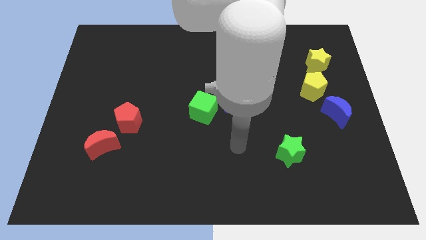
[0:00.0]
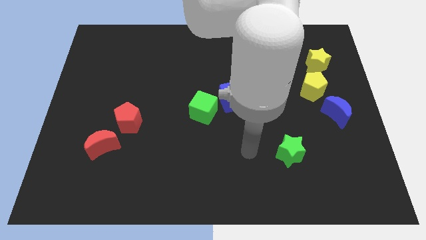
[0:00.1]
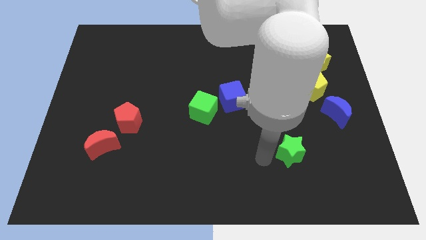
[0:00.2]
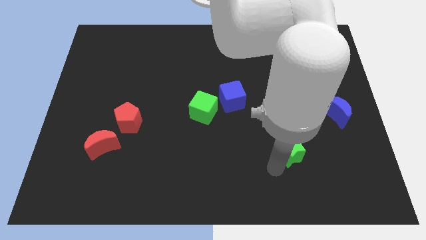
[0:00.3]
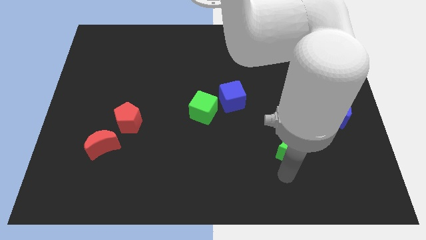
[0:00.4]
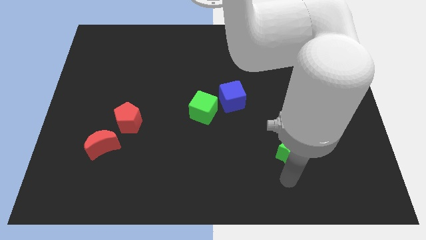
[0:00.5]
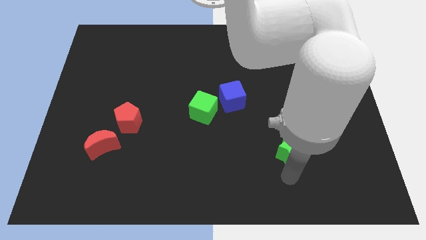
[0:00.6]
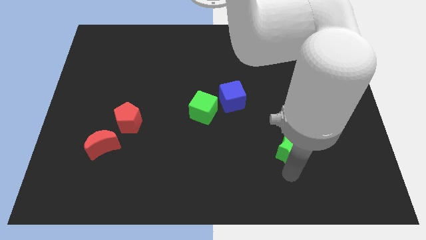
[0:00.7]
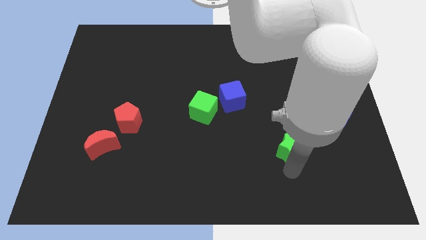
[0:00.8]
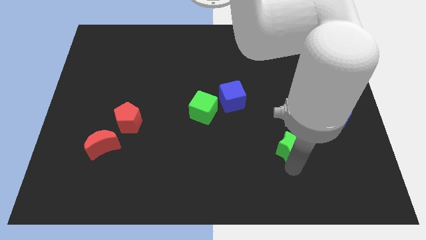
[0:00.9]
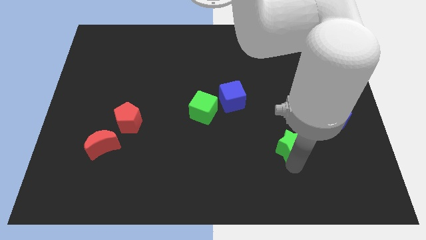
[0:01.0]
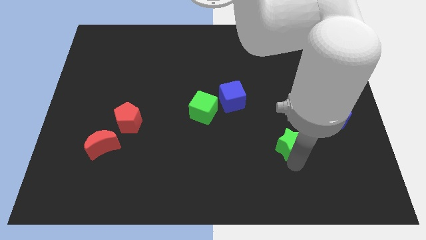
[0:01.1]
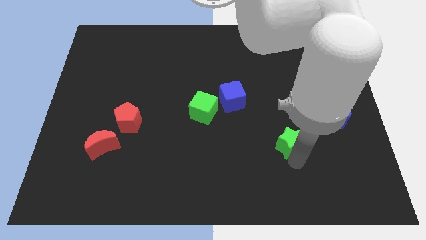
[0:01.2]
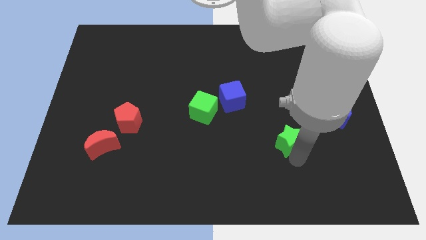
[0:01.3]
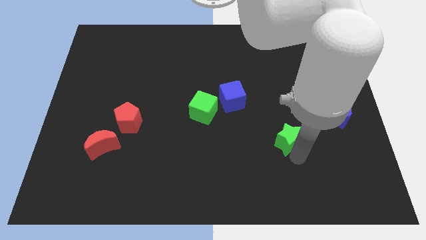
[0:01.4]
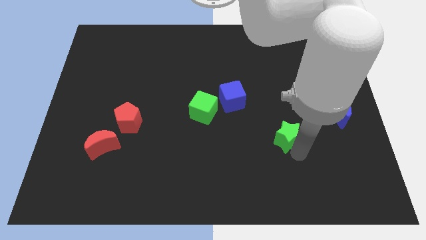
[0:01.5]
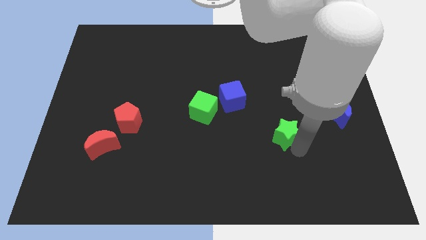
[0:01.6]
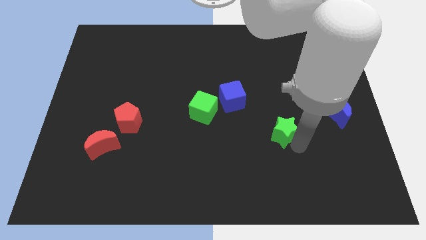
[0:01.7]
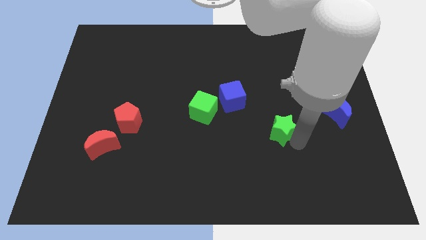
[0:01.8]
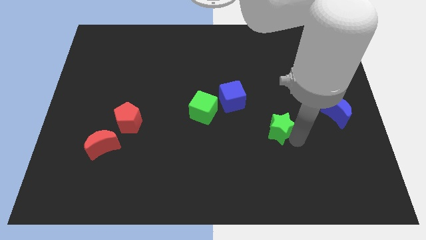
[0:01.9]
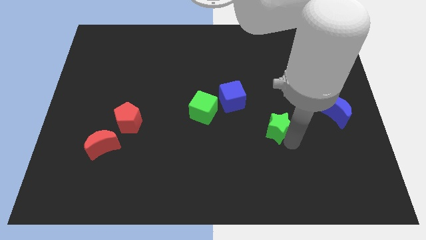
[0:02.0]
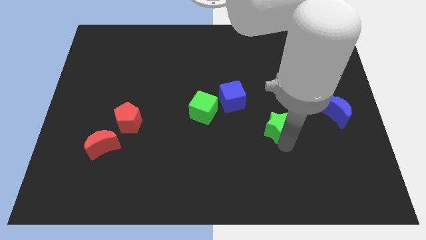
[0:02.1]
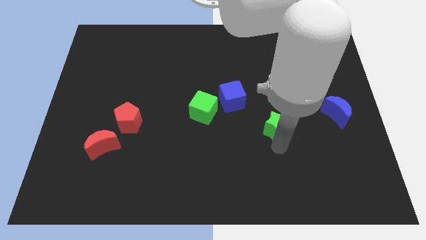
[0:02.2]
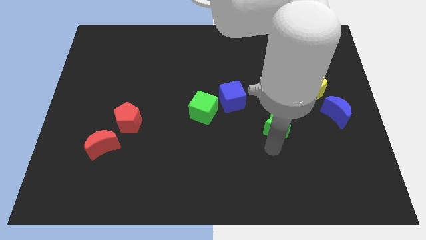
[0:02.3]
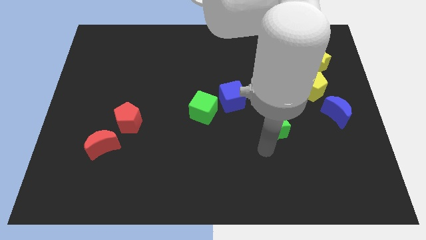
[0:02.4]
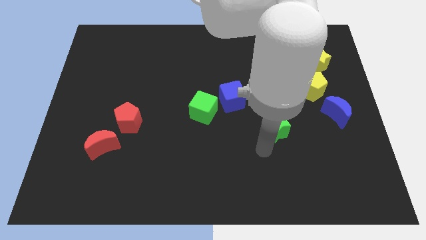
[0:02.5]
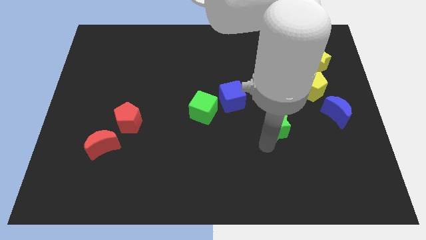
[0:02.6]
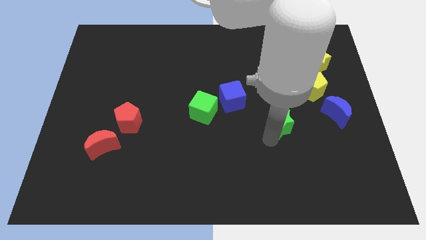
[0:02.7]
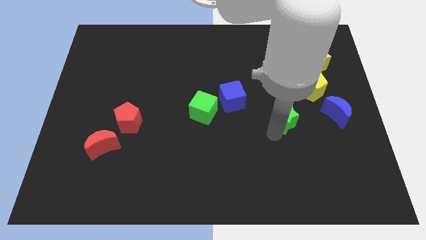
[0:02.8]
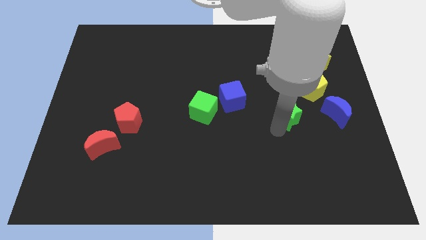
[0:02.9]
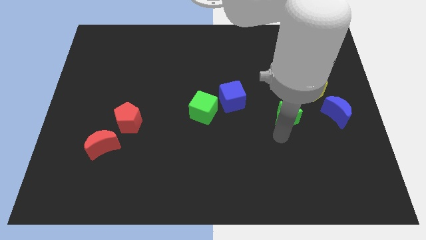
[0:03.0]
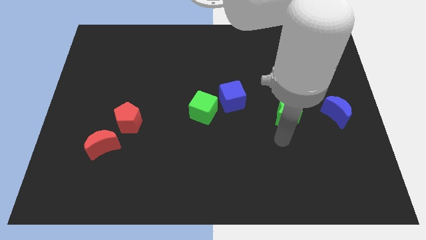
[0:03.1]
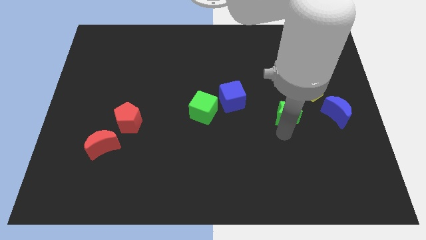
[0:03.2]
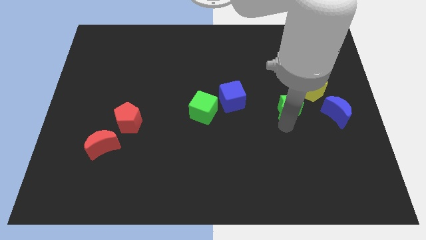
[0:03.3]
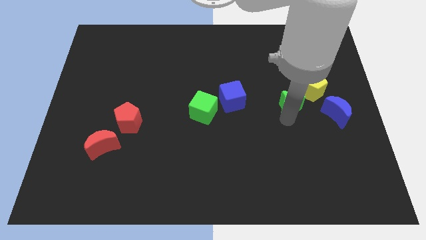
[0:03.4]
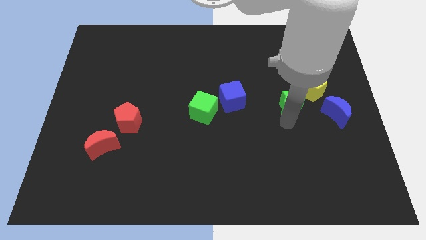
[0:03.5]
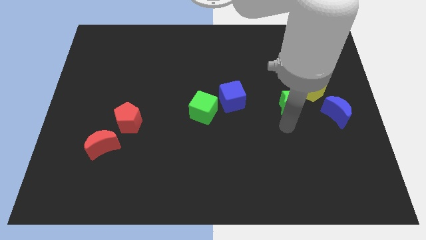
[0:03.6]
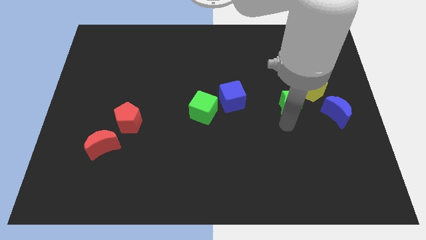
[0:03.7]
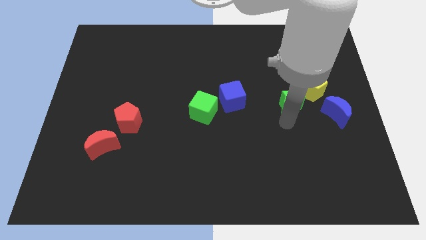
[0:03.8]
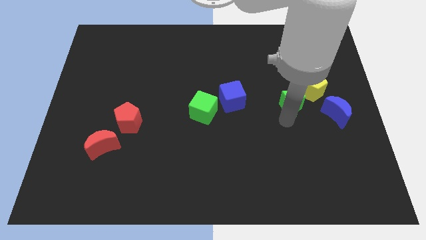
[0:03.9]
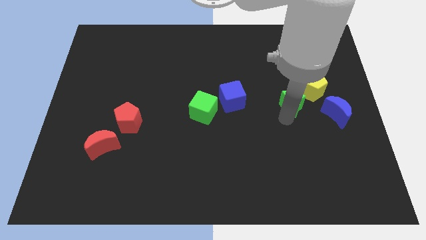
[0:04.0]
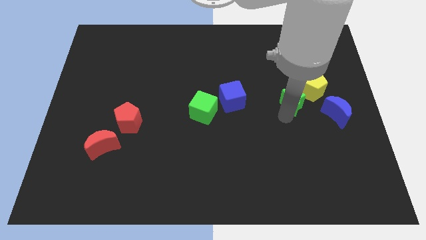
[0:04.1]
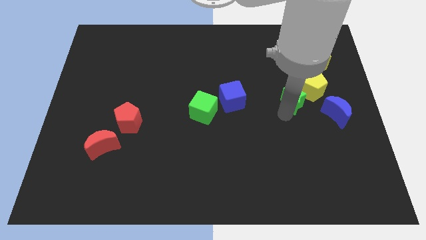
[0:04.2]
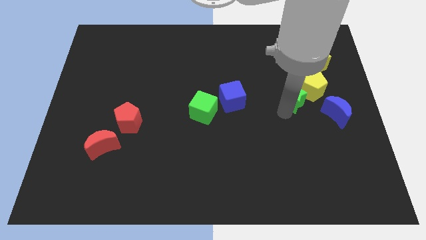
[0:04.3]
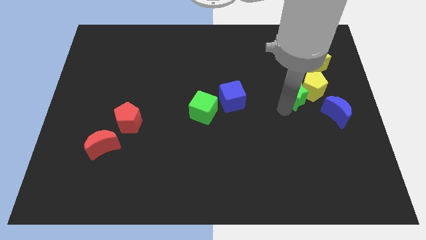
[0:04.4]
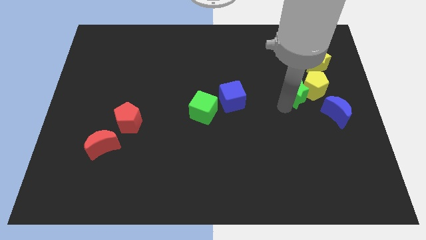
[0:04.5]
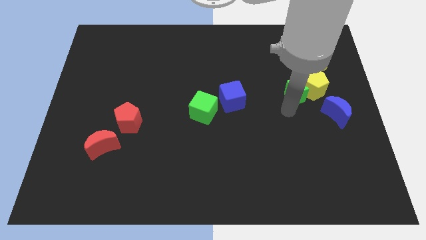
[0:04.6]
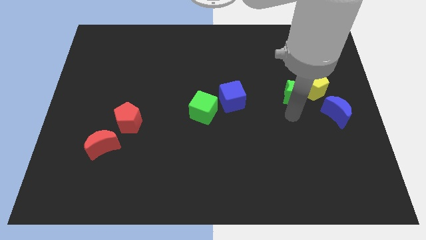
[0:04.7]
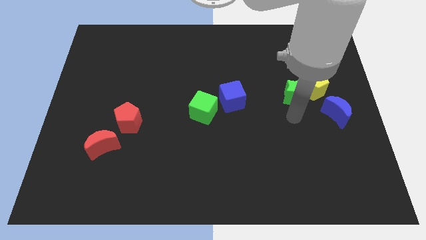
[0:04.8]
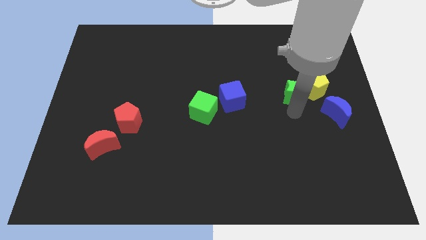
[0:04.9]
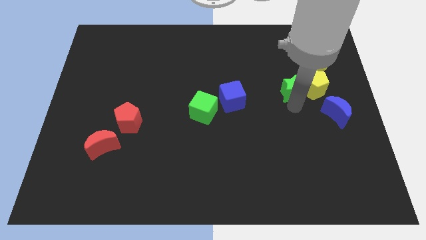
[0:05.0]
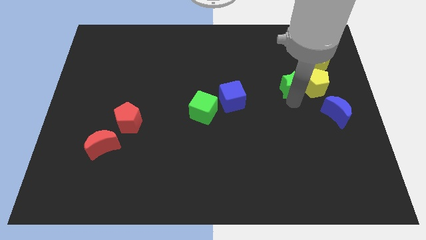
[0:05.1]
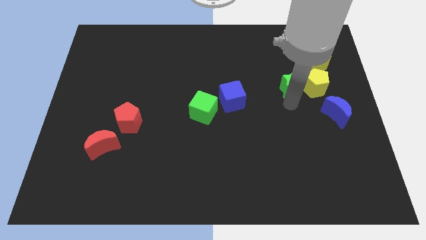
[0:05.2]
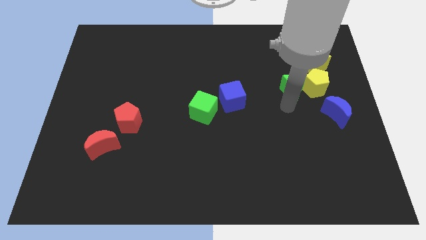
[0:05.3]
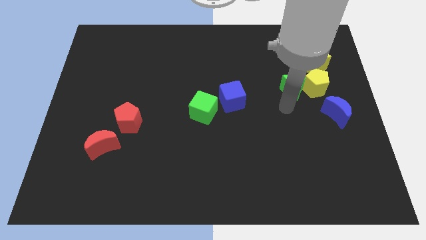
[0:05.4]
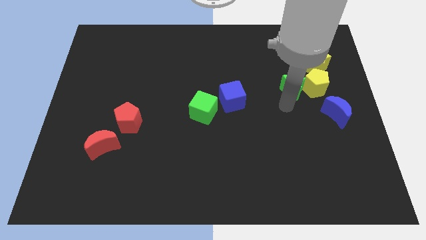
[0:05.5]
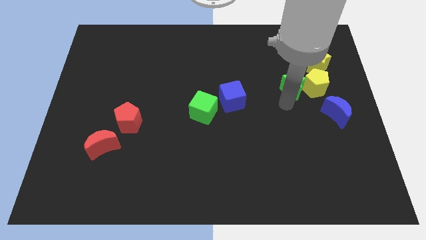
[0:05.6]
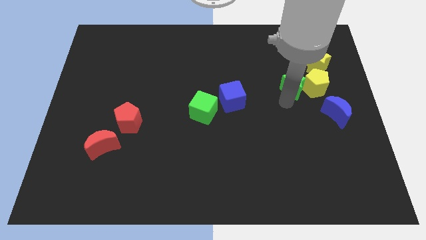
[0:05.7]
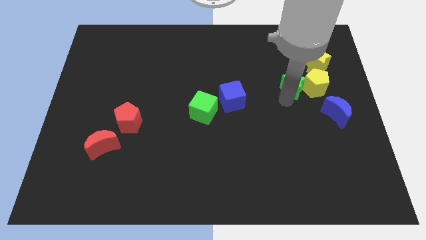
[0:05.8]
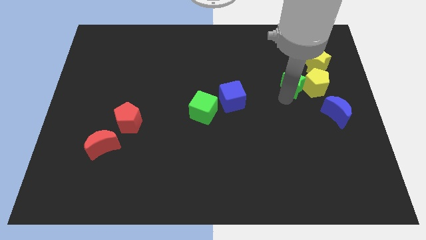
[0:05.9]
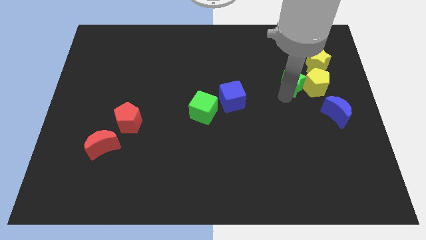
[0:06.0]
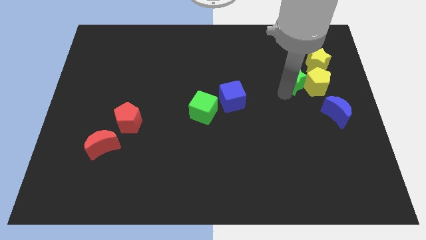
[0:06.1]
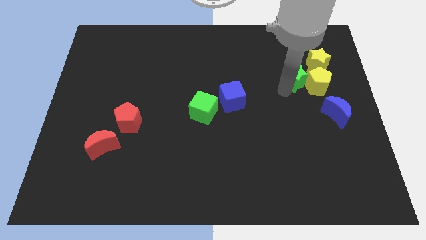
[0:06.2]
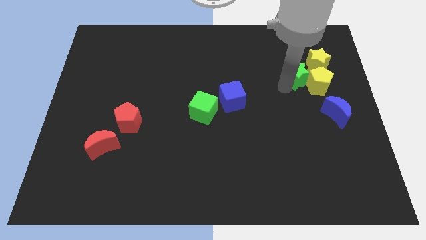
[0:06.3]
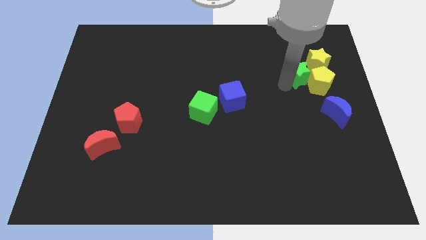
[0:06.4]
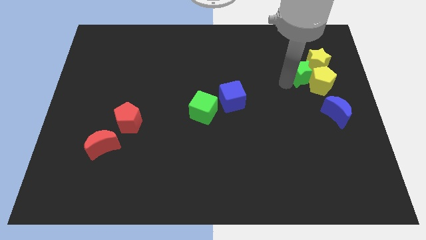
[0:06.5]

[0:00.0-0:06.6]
put the green star close to the yellow star

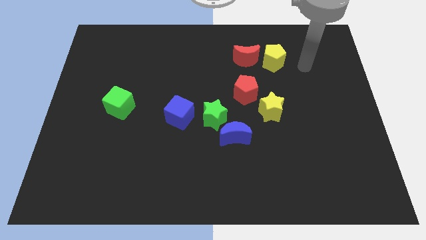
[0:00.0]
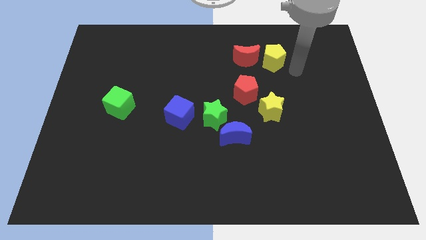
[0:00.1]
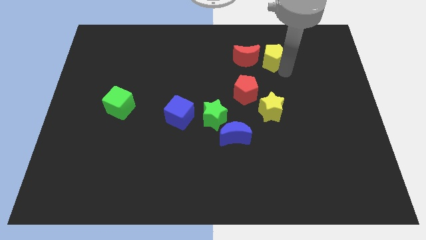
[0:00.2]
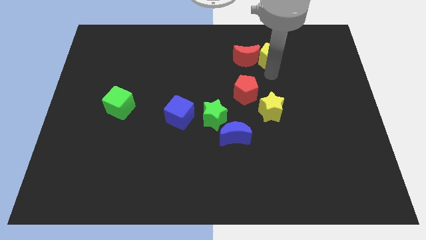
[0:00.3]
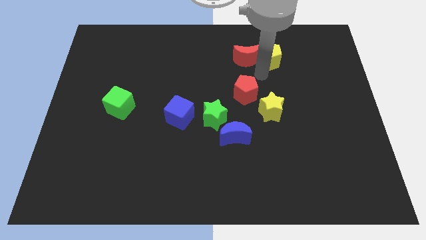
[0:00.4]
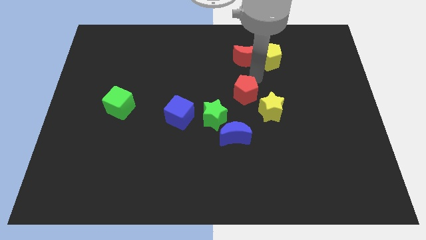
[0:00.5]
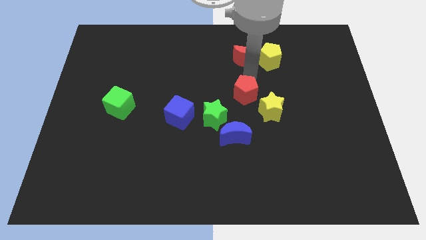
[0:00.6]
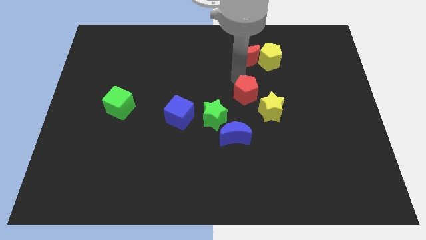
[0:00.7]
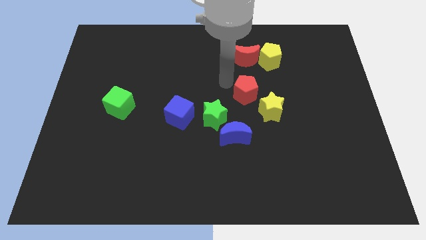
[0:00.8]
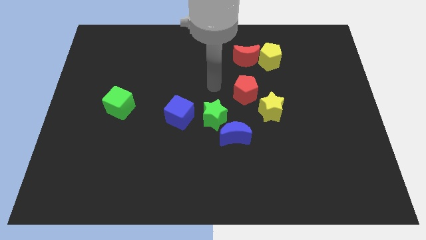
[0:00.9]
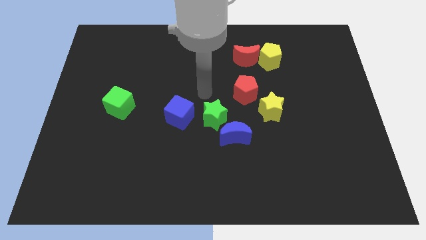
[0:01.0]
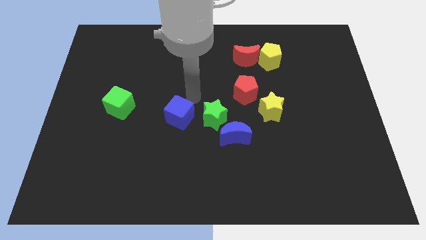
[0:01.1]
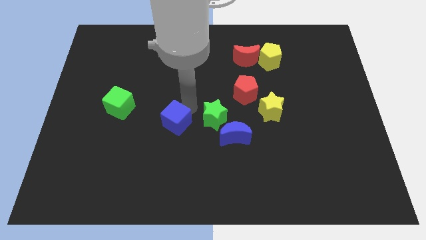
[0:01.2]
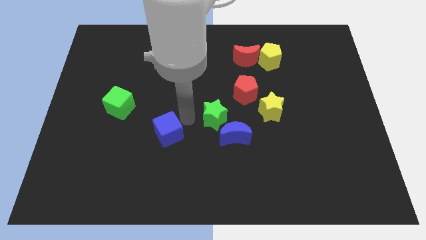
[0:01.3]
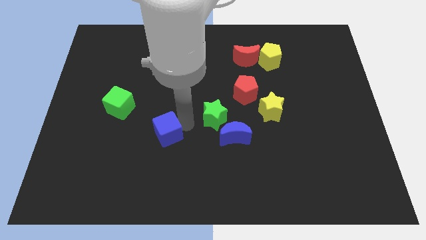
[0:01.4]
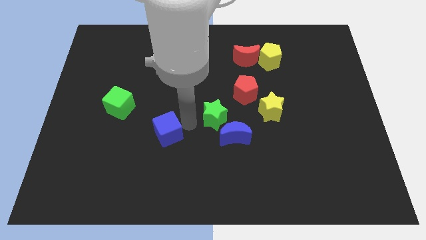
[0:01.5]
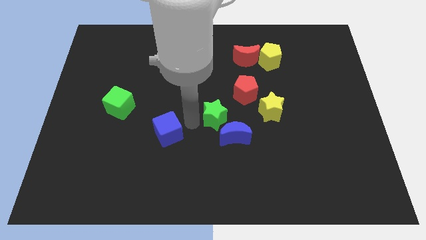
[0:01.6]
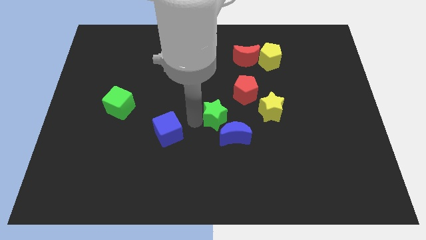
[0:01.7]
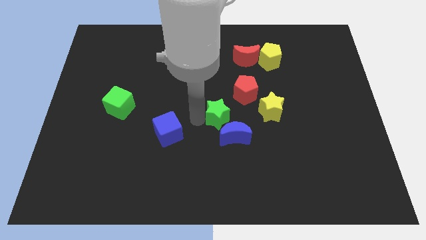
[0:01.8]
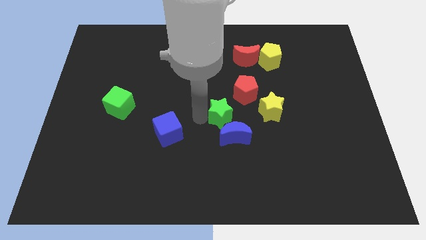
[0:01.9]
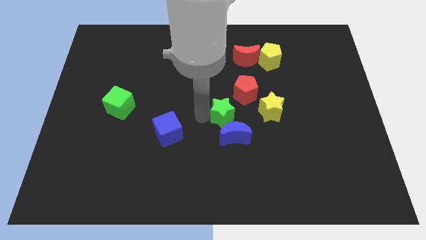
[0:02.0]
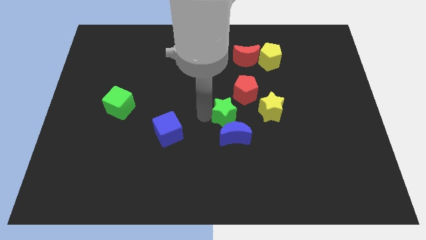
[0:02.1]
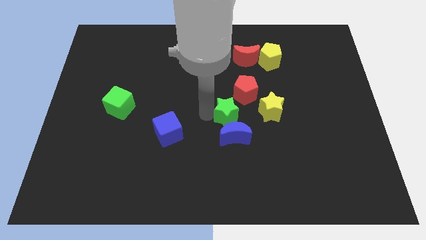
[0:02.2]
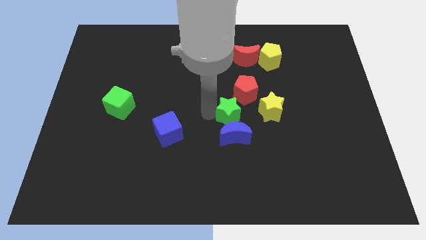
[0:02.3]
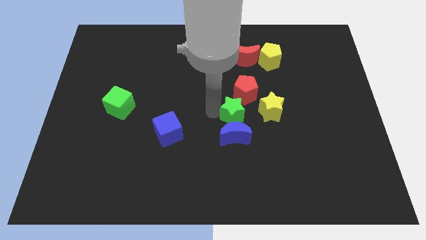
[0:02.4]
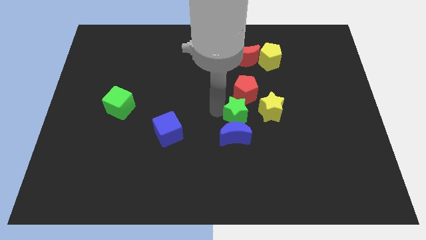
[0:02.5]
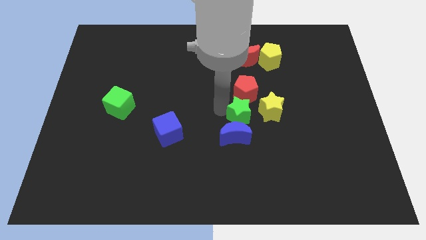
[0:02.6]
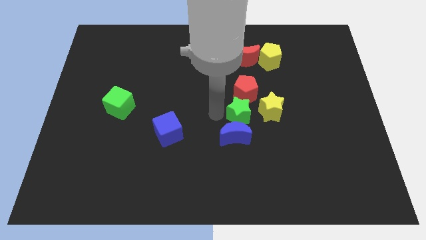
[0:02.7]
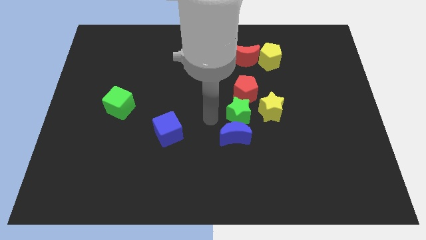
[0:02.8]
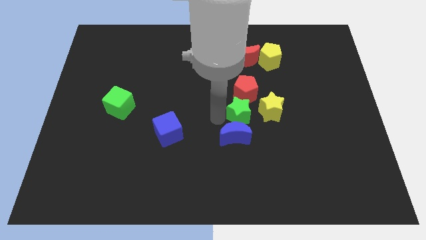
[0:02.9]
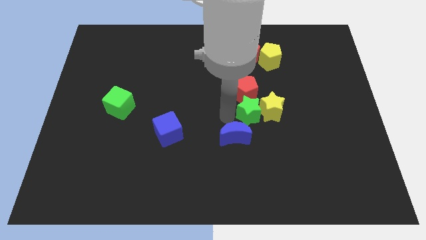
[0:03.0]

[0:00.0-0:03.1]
put the green star to the yellow star
